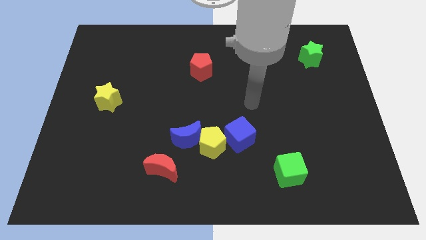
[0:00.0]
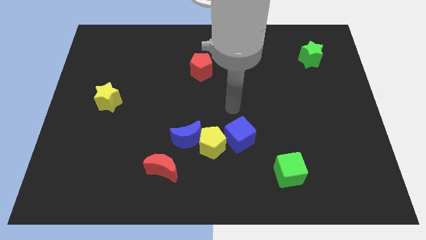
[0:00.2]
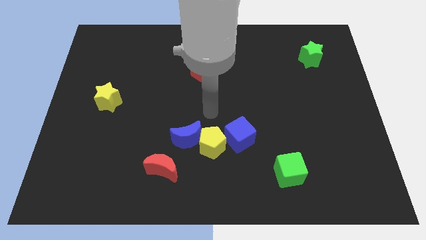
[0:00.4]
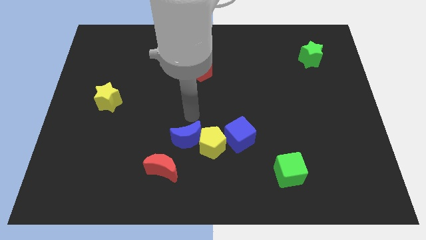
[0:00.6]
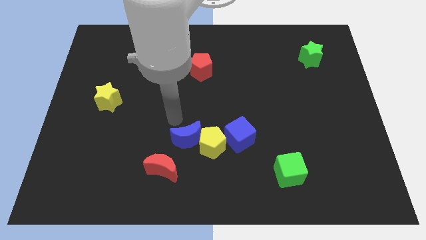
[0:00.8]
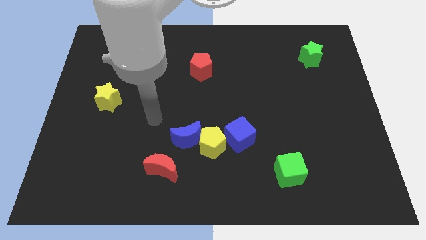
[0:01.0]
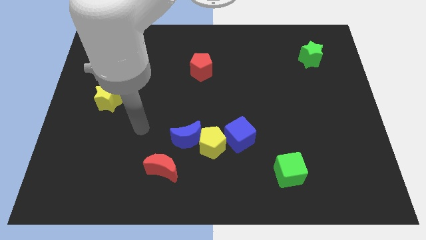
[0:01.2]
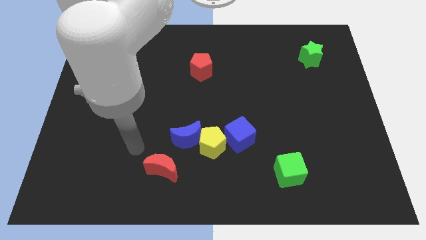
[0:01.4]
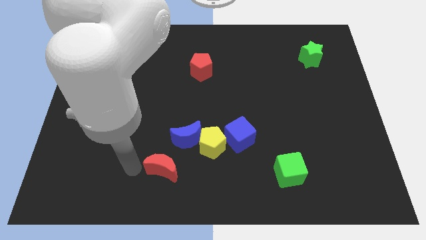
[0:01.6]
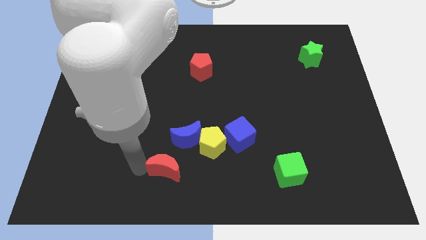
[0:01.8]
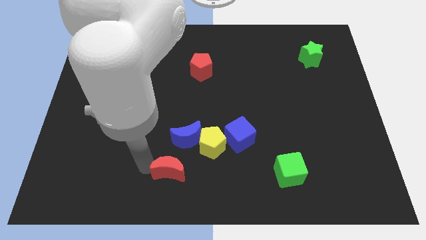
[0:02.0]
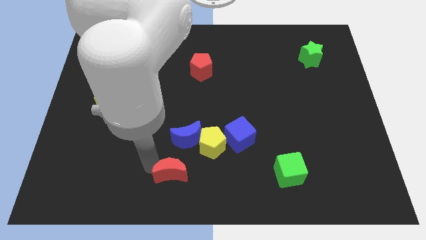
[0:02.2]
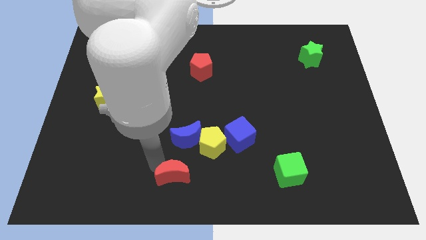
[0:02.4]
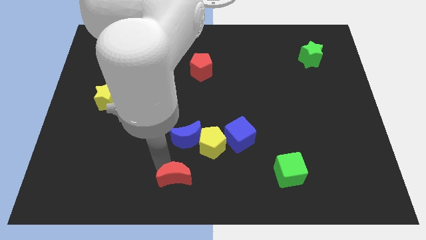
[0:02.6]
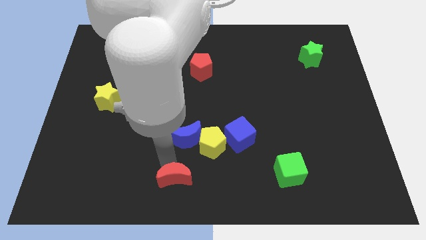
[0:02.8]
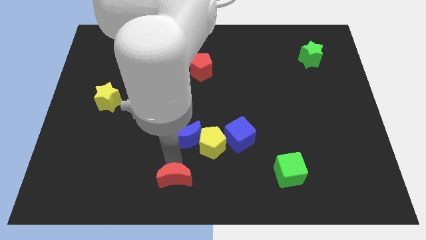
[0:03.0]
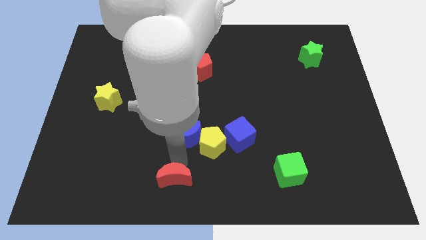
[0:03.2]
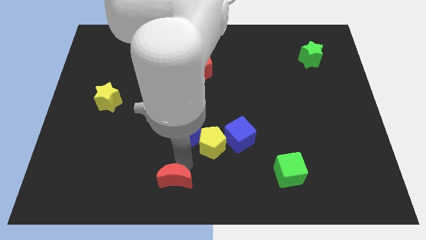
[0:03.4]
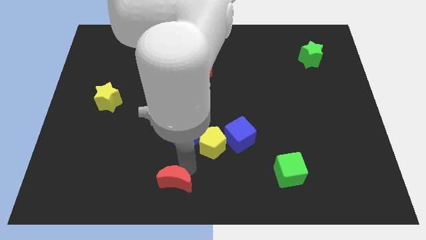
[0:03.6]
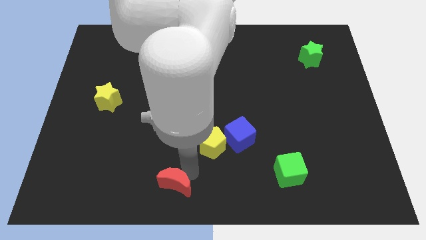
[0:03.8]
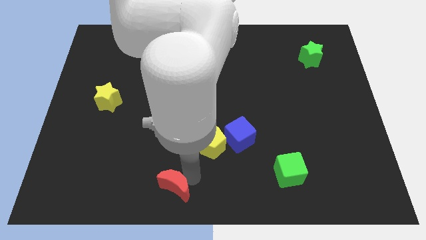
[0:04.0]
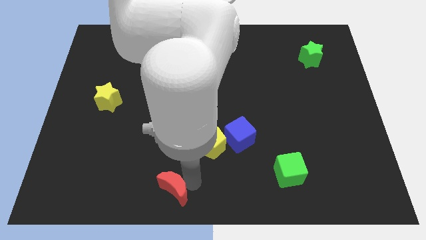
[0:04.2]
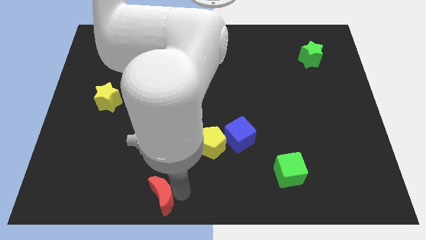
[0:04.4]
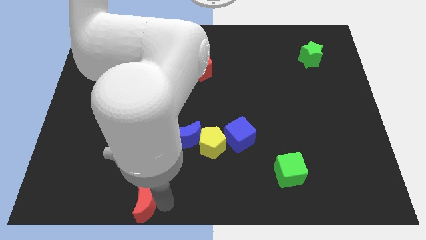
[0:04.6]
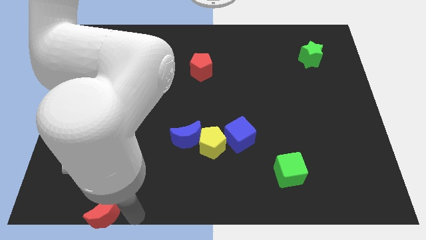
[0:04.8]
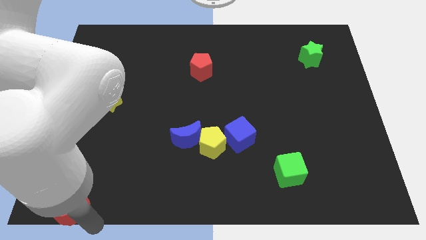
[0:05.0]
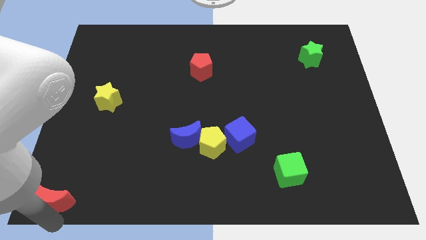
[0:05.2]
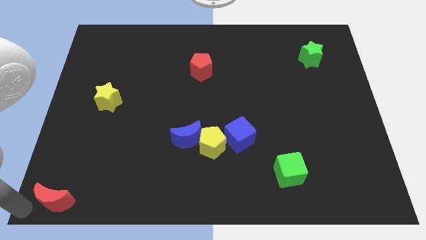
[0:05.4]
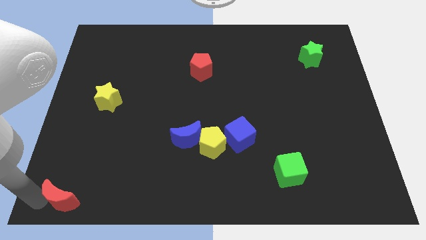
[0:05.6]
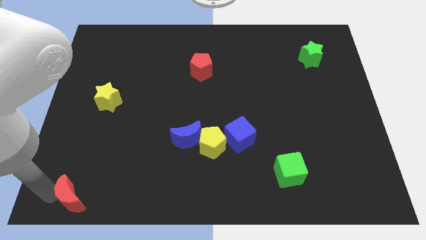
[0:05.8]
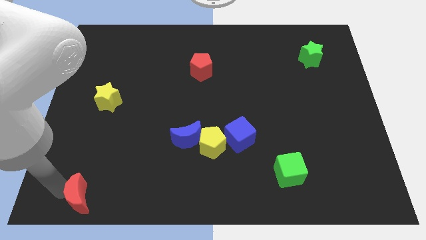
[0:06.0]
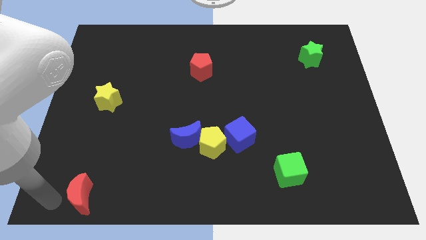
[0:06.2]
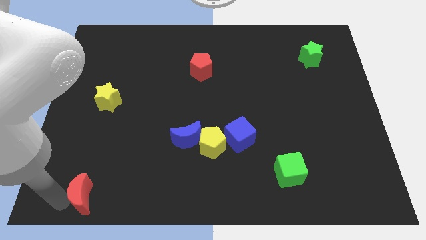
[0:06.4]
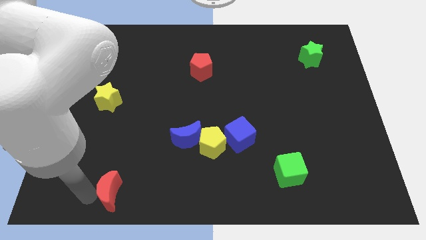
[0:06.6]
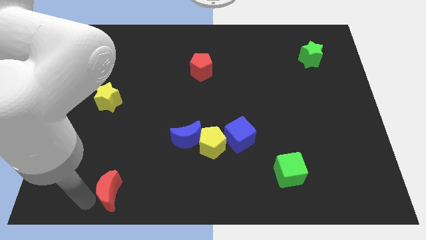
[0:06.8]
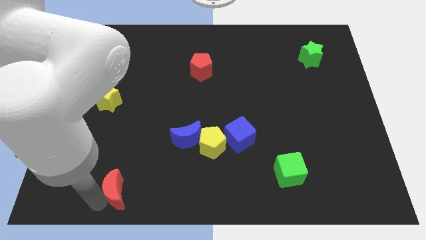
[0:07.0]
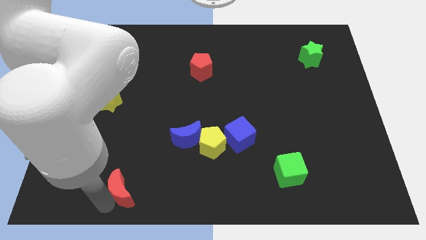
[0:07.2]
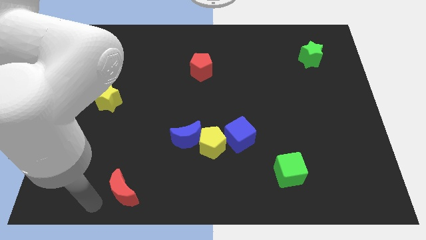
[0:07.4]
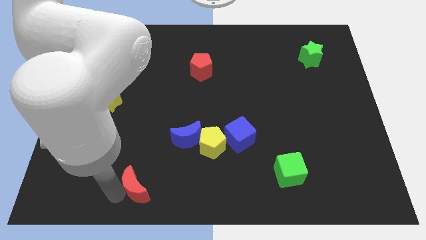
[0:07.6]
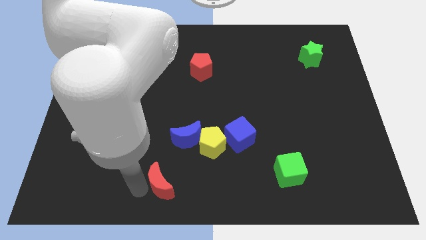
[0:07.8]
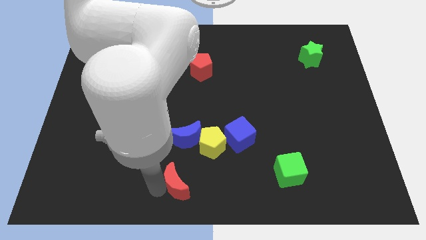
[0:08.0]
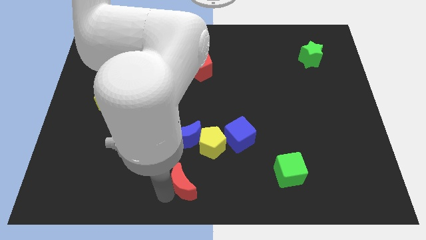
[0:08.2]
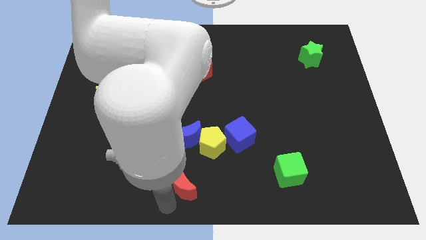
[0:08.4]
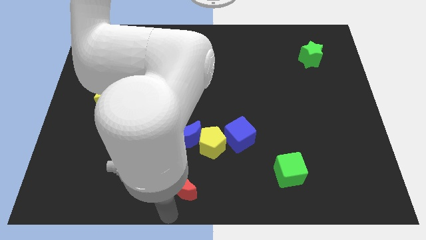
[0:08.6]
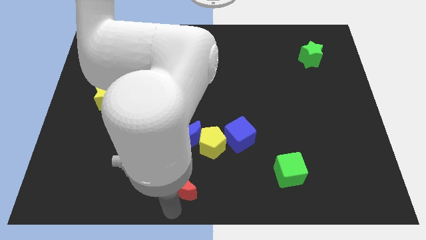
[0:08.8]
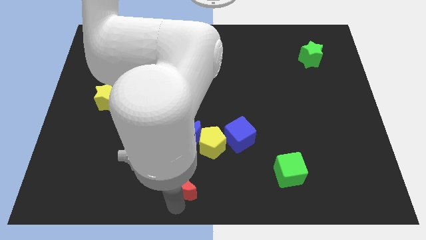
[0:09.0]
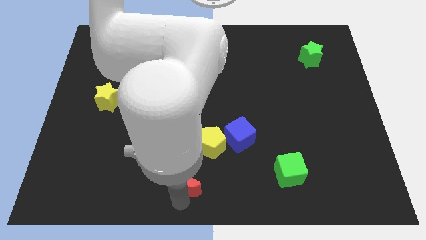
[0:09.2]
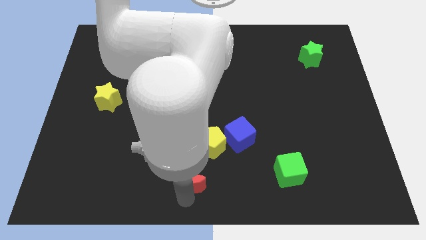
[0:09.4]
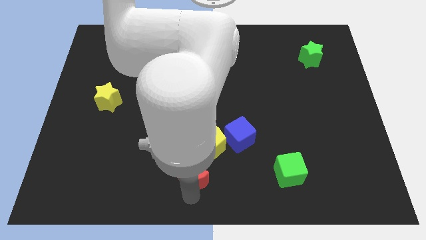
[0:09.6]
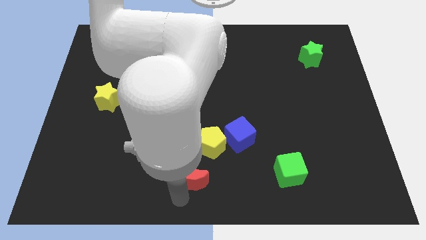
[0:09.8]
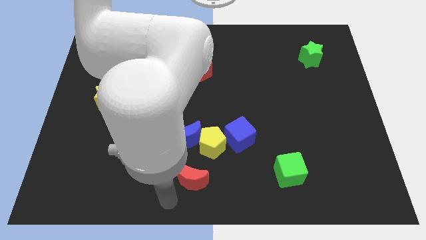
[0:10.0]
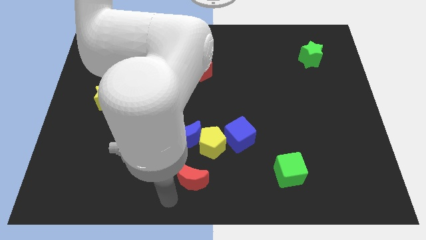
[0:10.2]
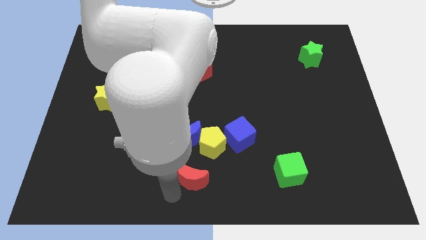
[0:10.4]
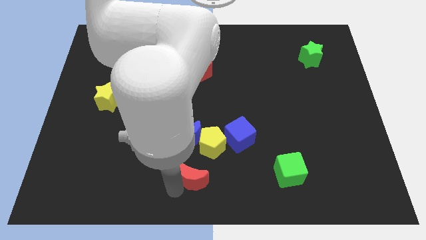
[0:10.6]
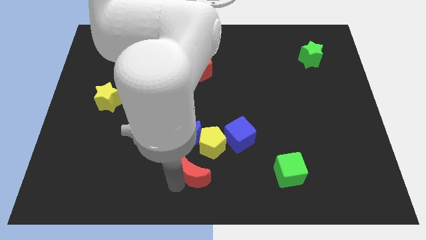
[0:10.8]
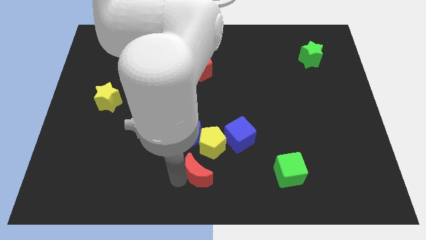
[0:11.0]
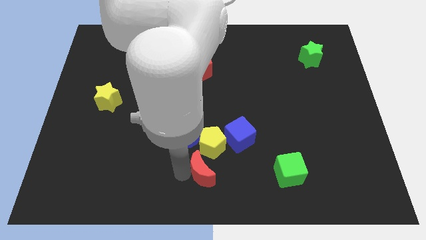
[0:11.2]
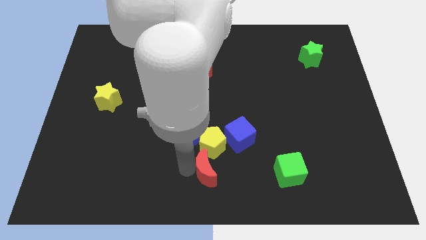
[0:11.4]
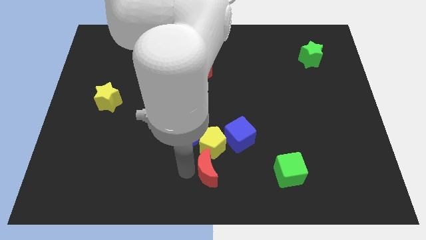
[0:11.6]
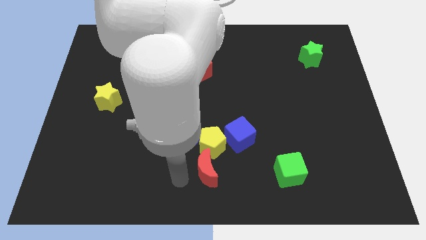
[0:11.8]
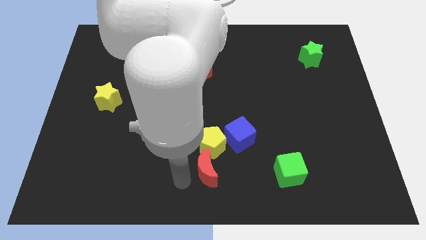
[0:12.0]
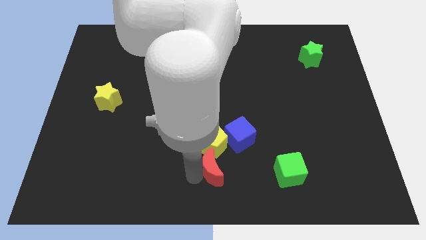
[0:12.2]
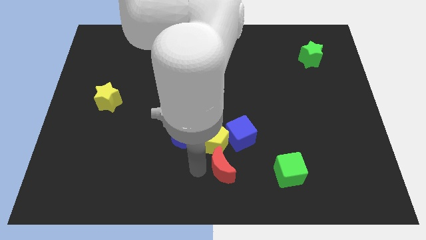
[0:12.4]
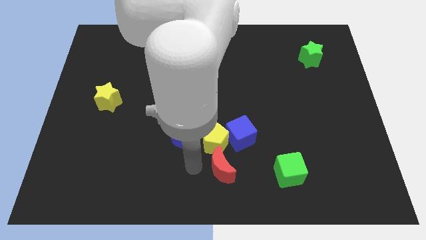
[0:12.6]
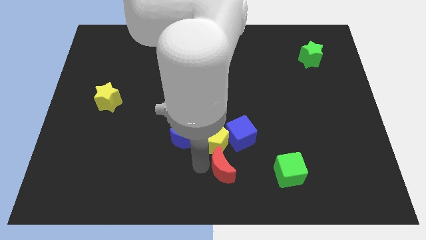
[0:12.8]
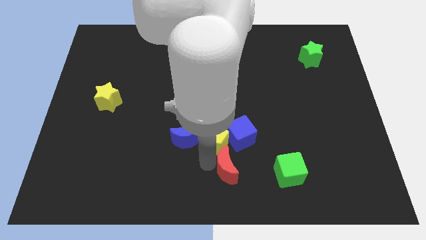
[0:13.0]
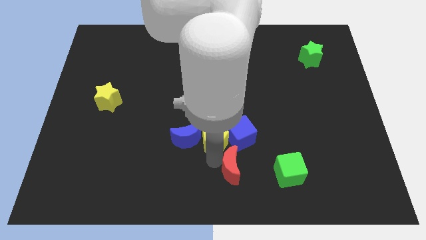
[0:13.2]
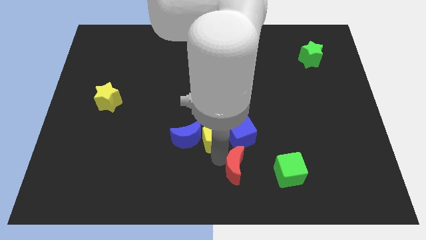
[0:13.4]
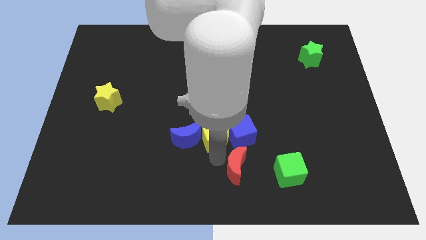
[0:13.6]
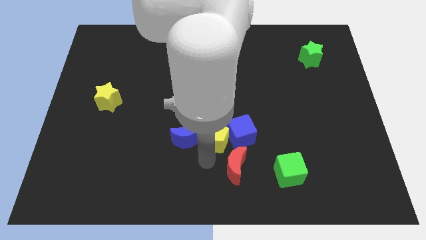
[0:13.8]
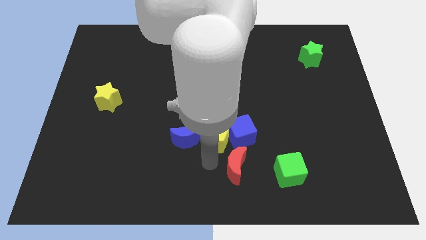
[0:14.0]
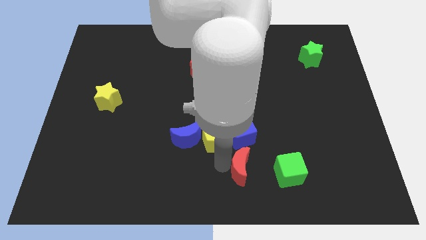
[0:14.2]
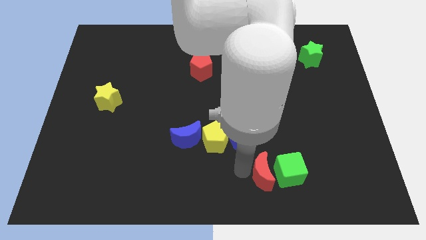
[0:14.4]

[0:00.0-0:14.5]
put the red moon close to the green cube

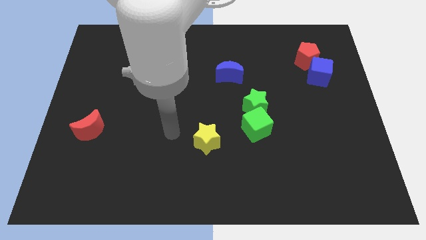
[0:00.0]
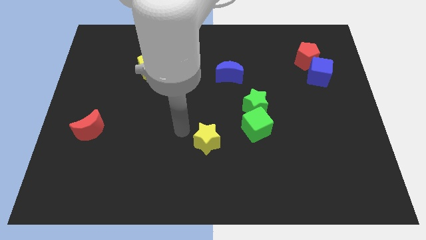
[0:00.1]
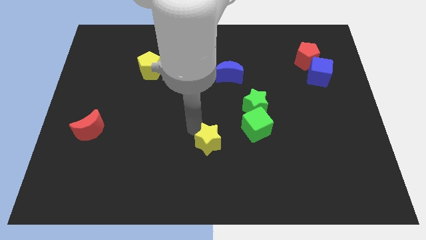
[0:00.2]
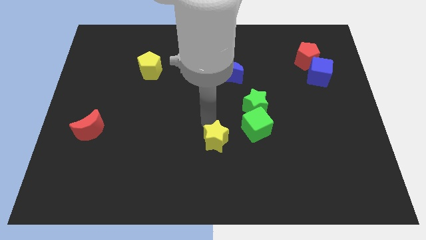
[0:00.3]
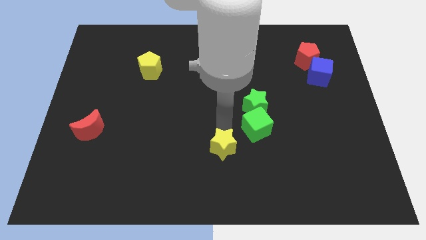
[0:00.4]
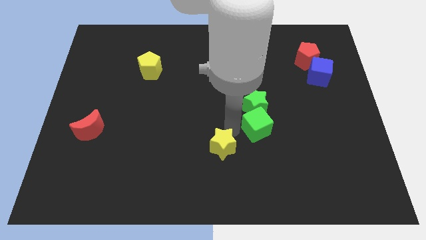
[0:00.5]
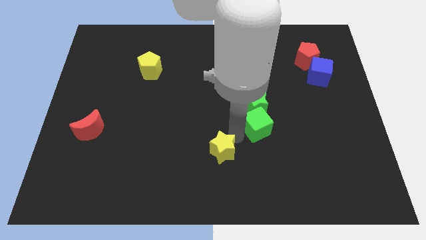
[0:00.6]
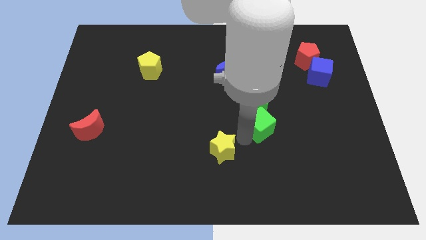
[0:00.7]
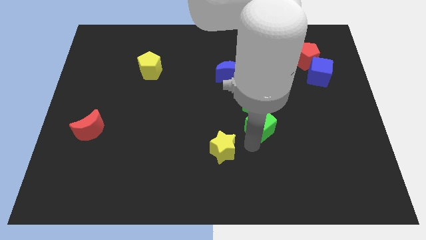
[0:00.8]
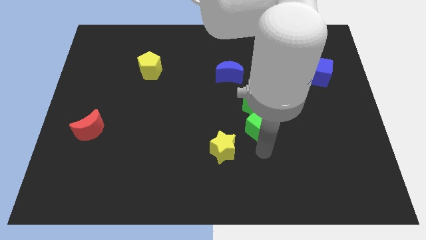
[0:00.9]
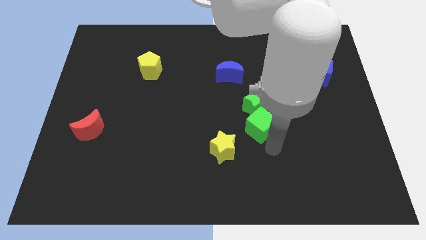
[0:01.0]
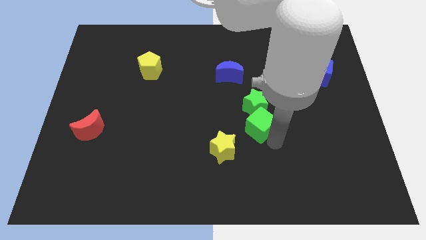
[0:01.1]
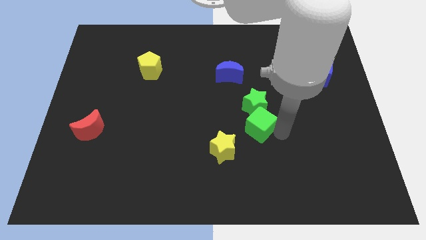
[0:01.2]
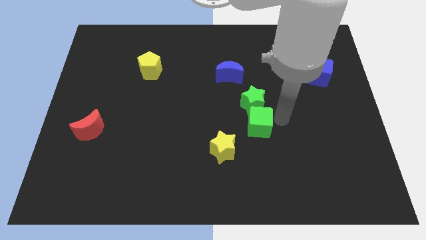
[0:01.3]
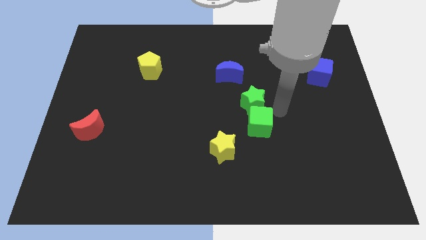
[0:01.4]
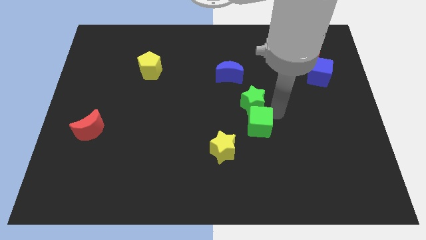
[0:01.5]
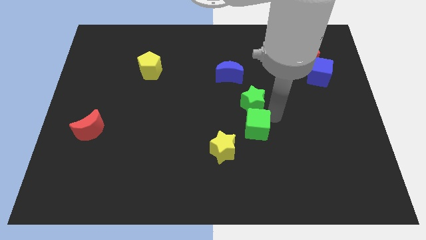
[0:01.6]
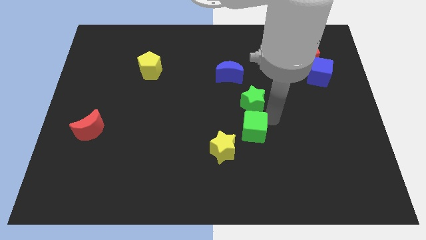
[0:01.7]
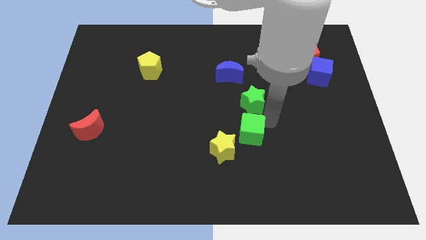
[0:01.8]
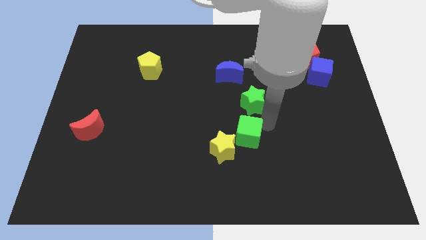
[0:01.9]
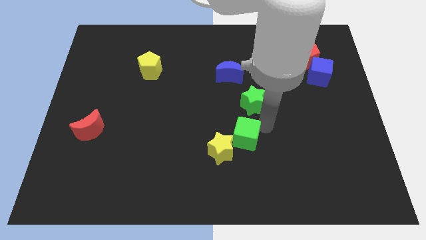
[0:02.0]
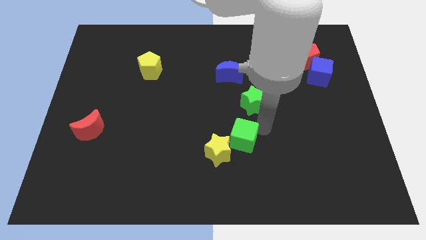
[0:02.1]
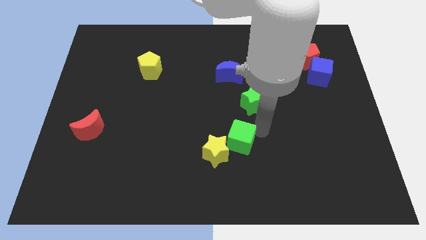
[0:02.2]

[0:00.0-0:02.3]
slide the green cube next to the yellow star
